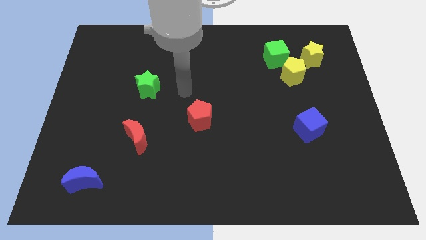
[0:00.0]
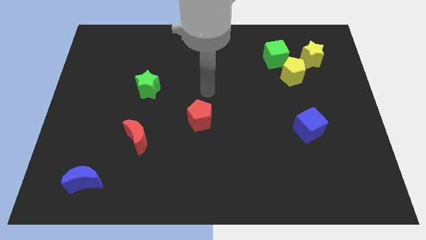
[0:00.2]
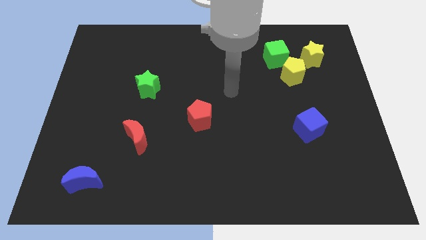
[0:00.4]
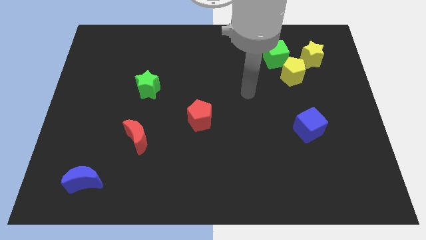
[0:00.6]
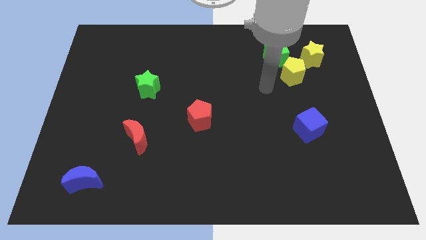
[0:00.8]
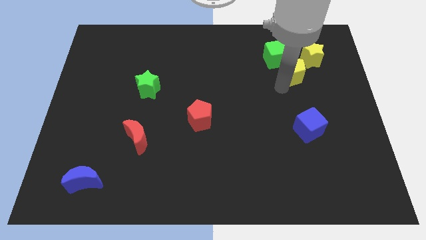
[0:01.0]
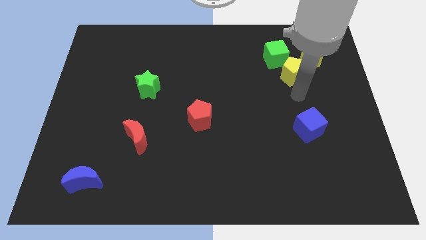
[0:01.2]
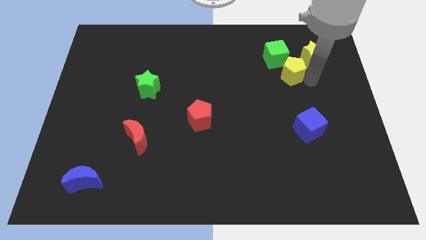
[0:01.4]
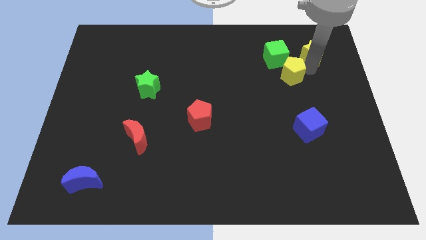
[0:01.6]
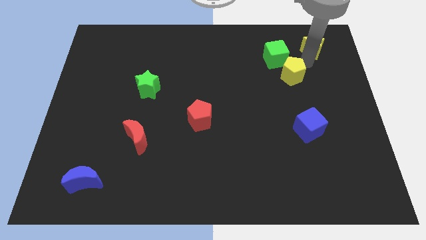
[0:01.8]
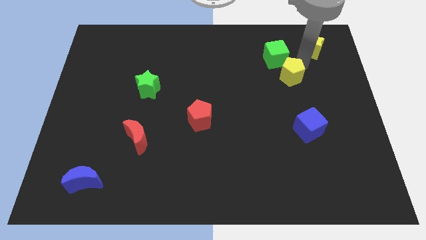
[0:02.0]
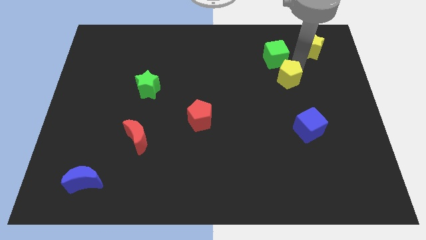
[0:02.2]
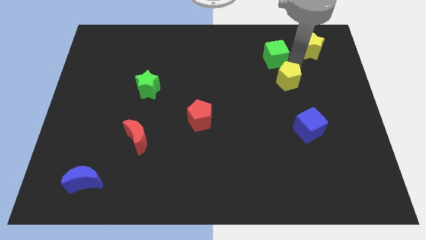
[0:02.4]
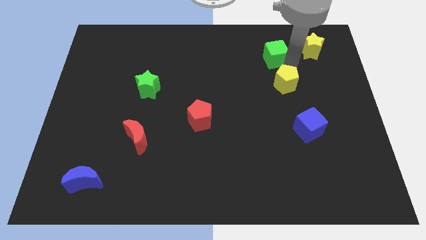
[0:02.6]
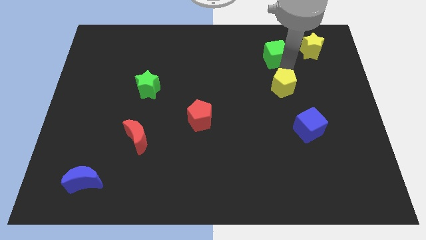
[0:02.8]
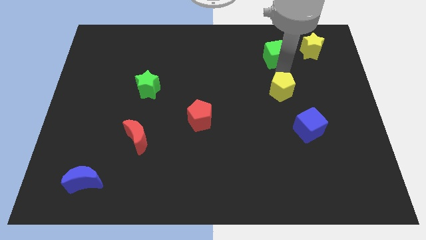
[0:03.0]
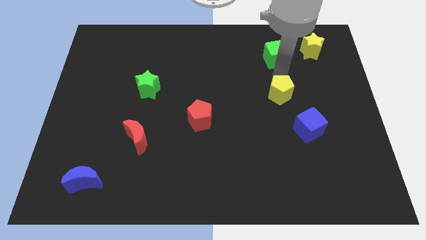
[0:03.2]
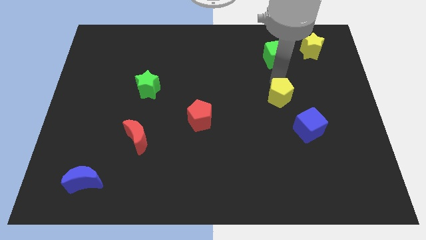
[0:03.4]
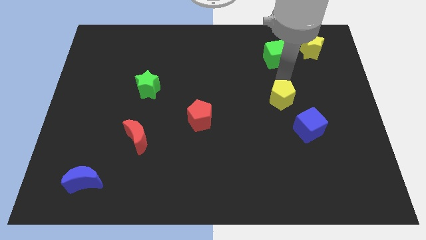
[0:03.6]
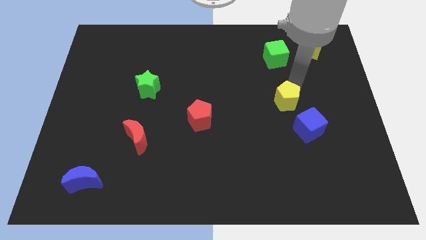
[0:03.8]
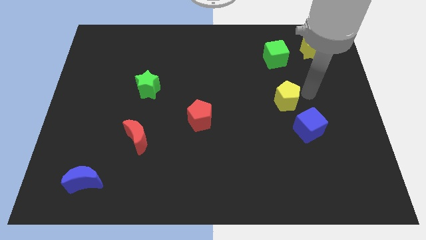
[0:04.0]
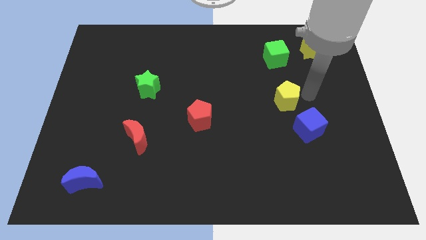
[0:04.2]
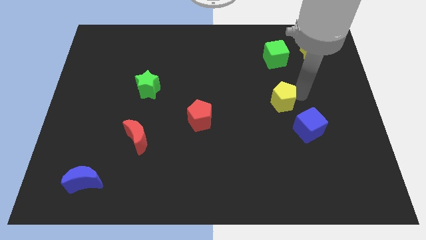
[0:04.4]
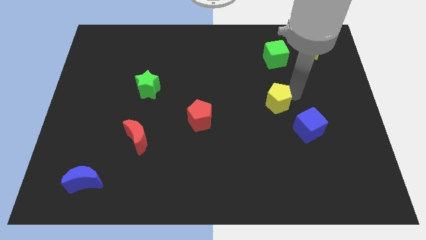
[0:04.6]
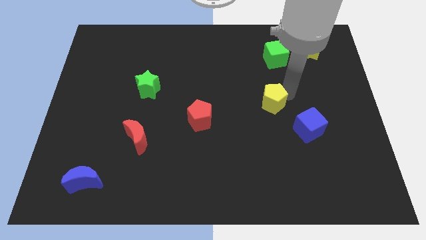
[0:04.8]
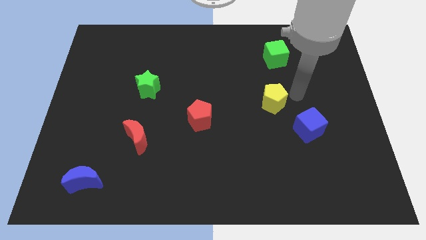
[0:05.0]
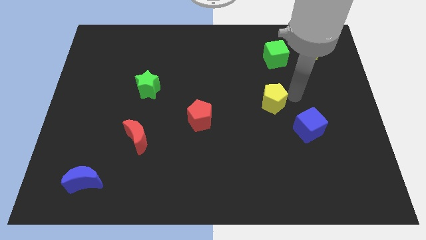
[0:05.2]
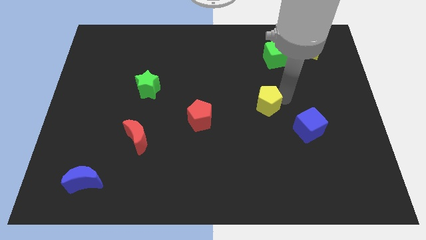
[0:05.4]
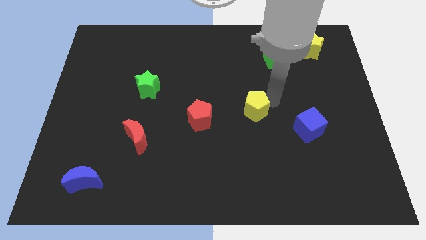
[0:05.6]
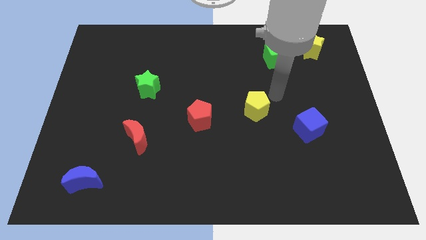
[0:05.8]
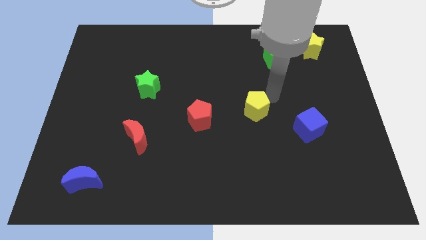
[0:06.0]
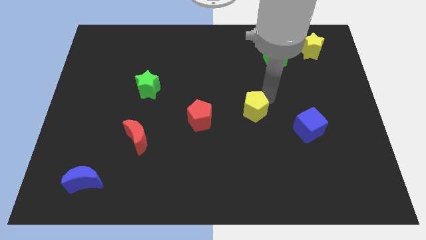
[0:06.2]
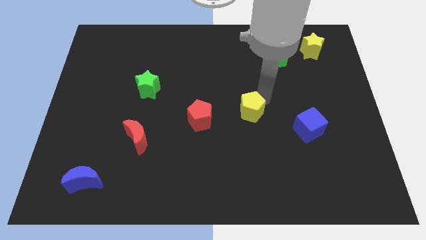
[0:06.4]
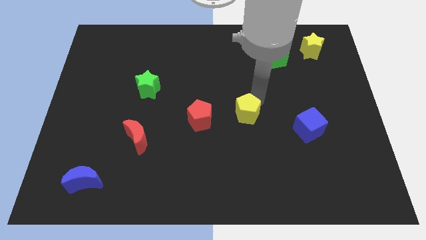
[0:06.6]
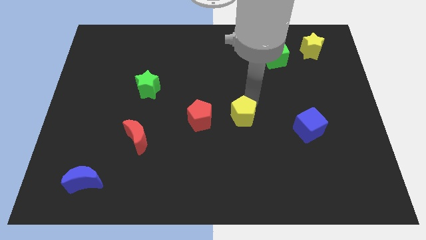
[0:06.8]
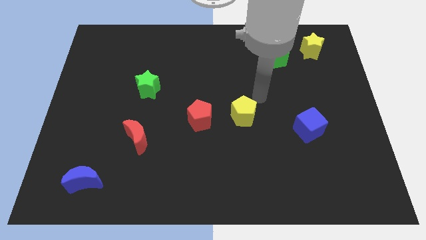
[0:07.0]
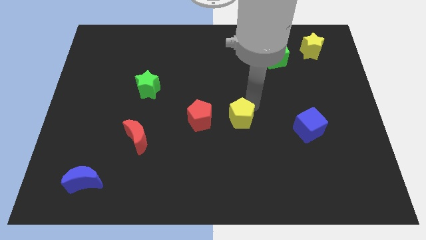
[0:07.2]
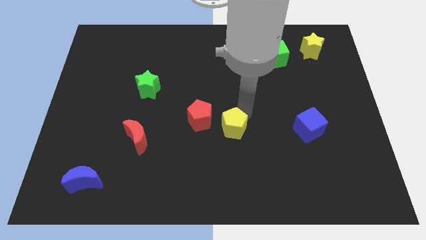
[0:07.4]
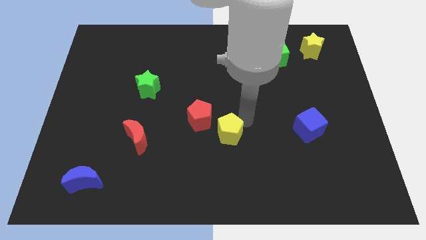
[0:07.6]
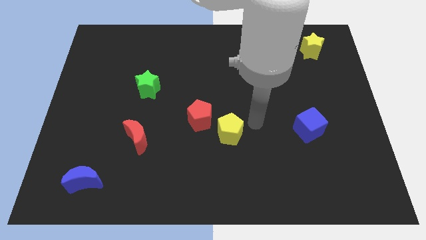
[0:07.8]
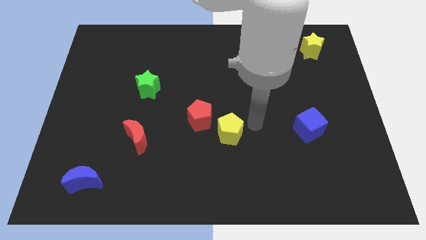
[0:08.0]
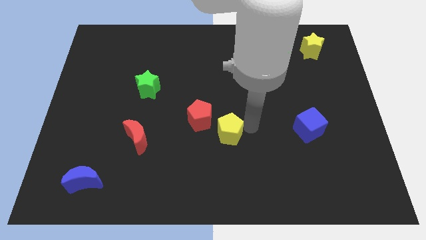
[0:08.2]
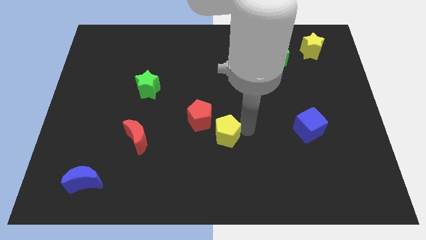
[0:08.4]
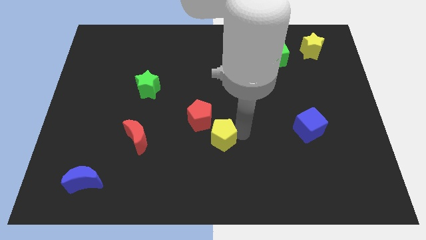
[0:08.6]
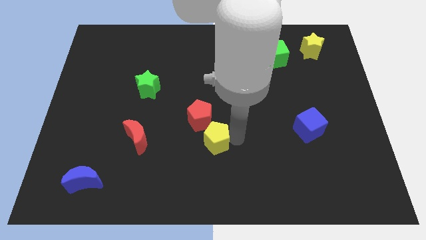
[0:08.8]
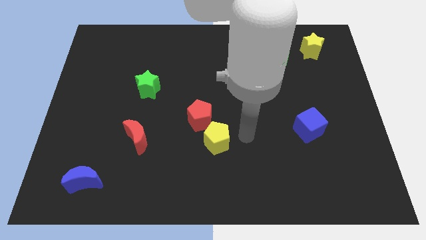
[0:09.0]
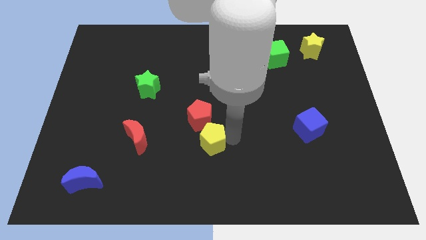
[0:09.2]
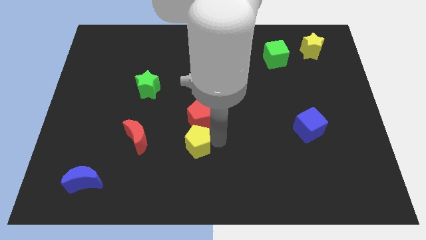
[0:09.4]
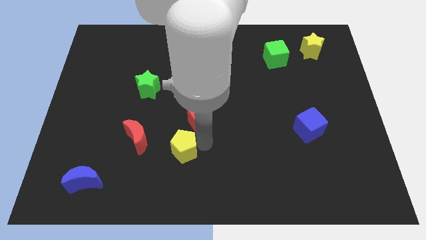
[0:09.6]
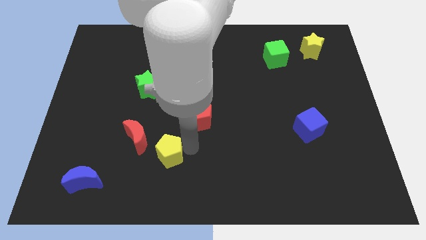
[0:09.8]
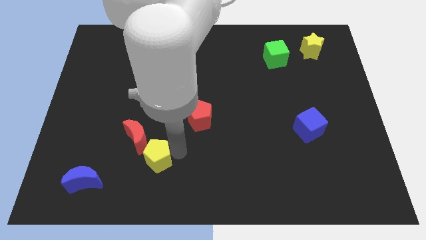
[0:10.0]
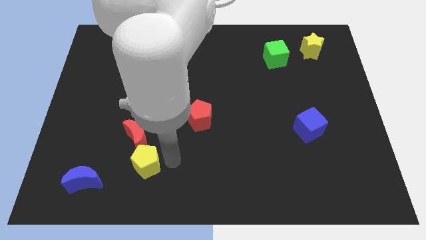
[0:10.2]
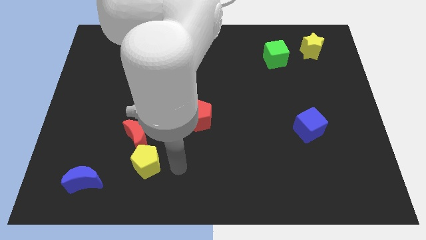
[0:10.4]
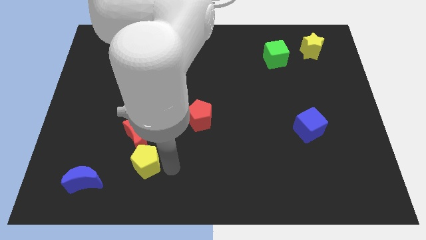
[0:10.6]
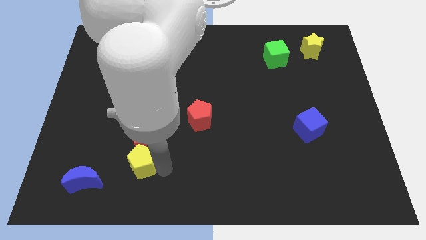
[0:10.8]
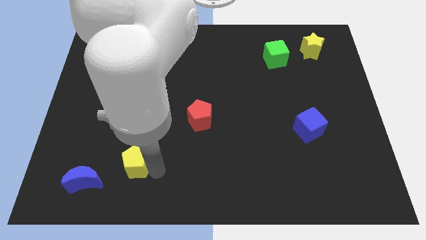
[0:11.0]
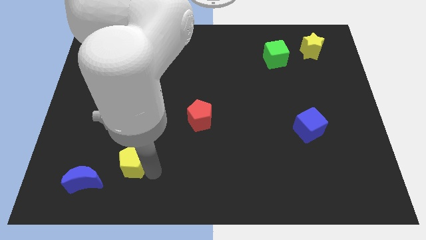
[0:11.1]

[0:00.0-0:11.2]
put the yellow pentagon to the top right of the blue moon

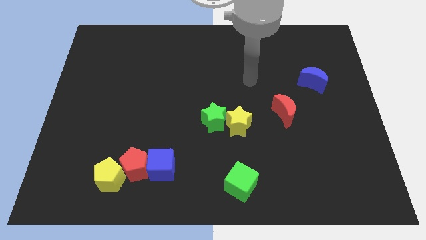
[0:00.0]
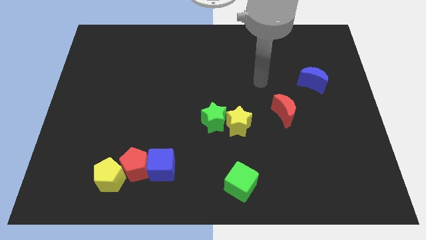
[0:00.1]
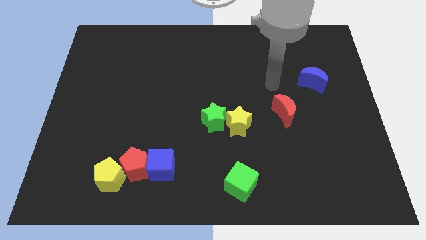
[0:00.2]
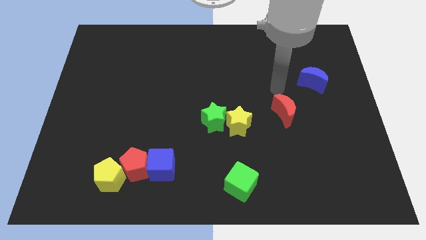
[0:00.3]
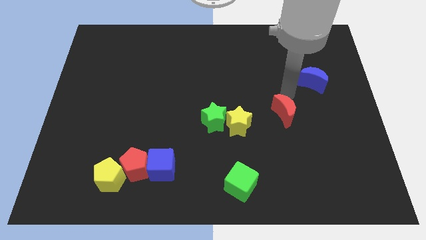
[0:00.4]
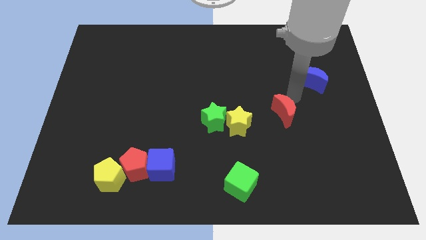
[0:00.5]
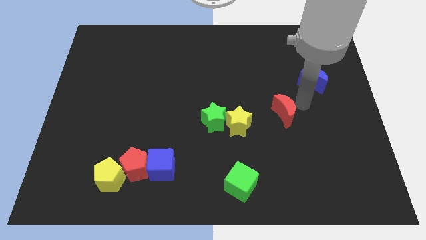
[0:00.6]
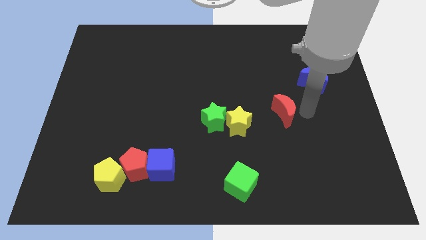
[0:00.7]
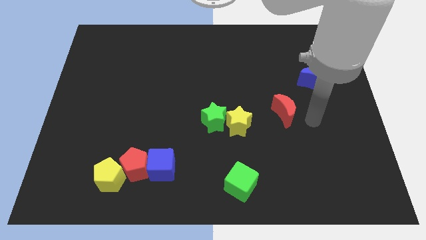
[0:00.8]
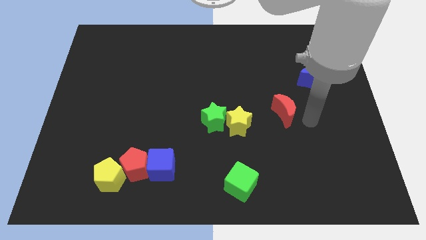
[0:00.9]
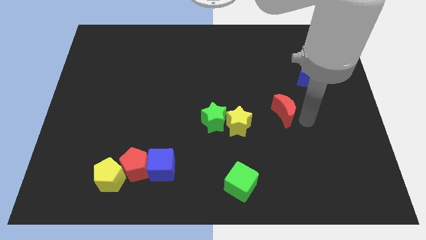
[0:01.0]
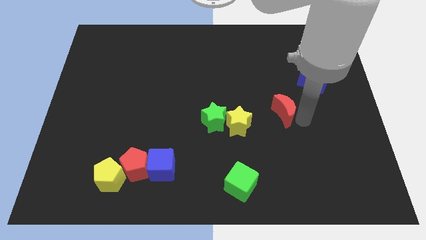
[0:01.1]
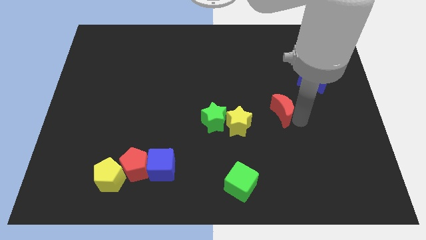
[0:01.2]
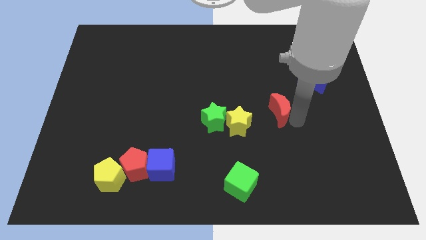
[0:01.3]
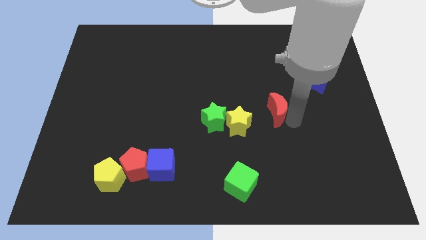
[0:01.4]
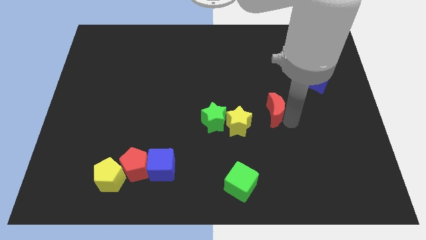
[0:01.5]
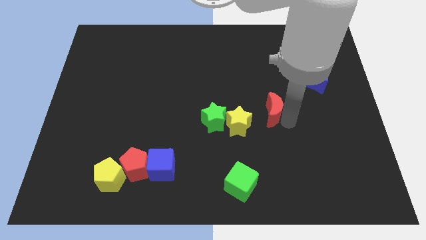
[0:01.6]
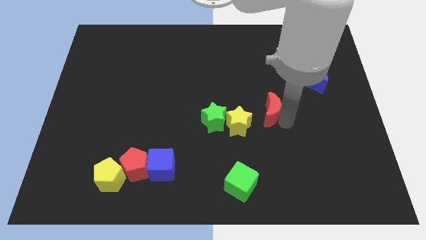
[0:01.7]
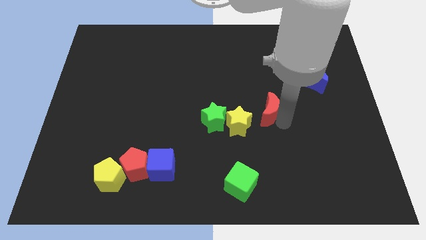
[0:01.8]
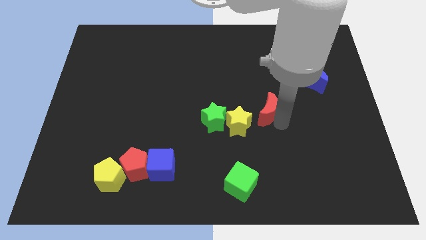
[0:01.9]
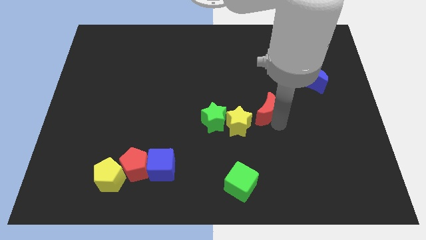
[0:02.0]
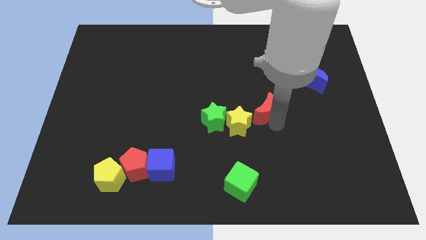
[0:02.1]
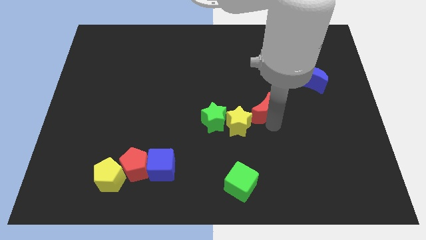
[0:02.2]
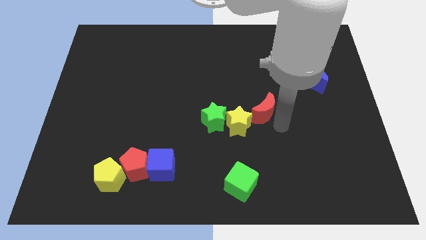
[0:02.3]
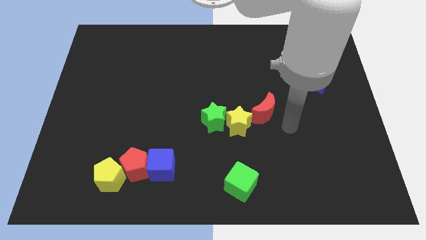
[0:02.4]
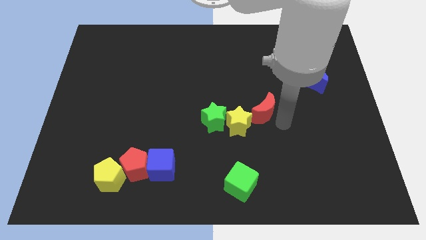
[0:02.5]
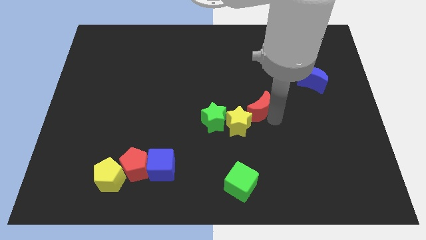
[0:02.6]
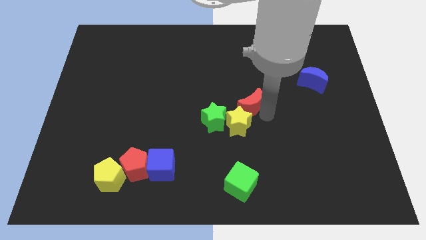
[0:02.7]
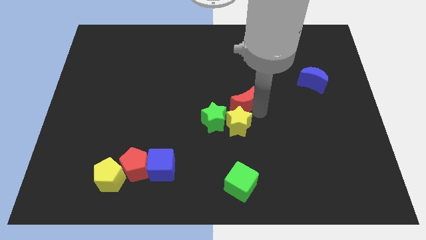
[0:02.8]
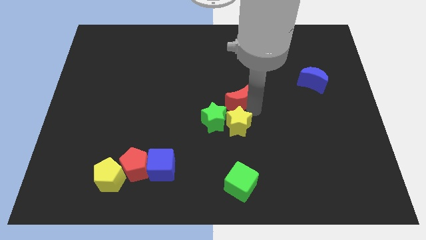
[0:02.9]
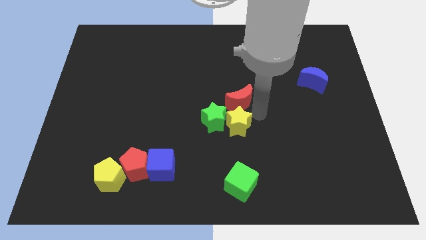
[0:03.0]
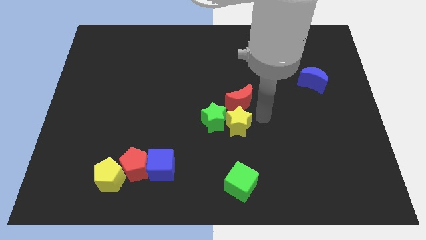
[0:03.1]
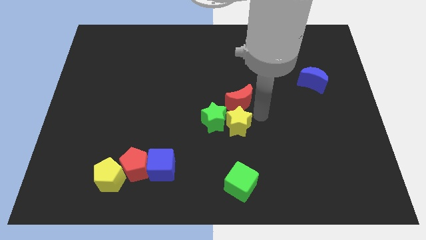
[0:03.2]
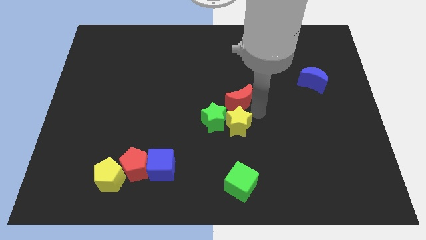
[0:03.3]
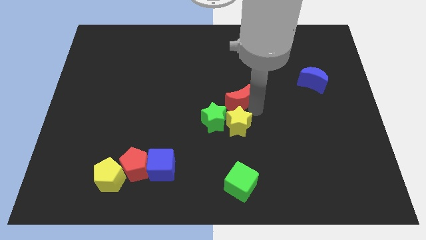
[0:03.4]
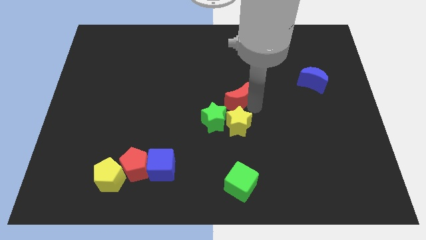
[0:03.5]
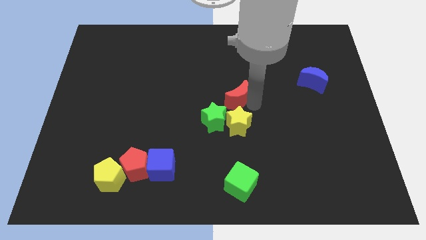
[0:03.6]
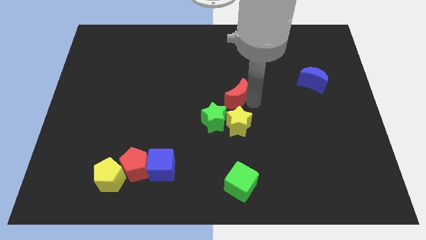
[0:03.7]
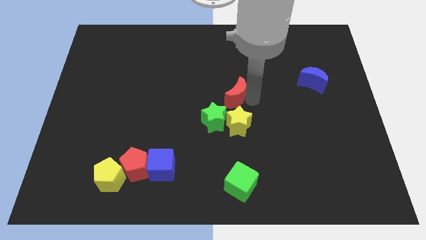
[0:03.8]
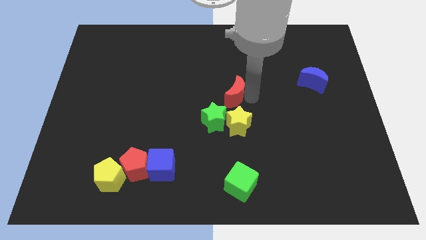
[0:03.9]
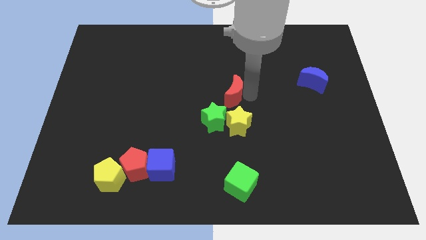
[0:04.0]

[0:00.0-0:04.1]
slide the red moon above the green star
